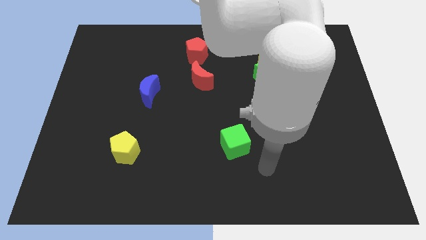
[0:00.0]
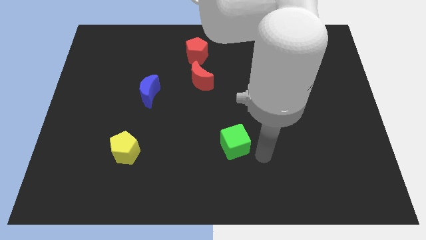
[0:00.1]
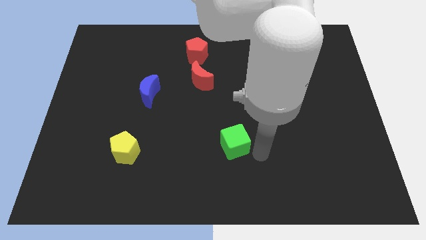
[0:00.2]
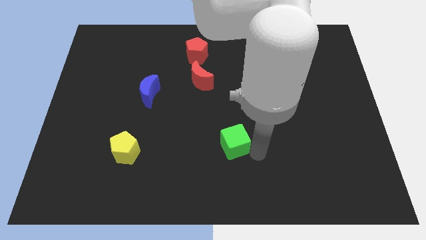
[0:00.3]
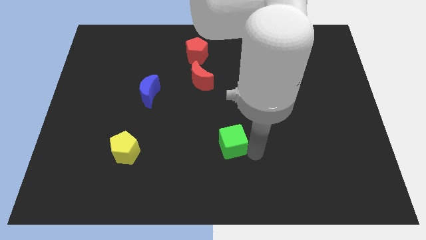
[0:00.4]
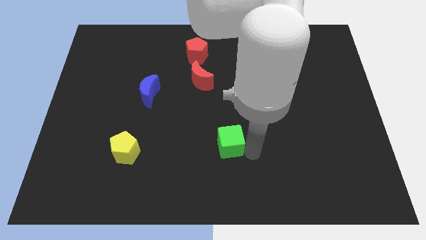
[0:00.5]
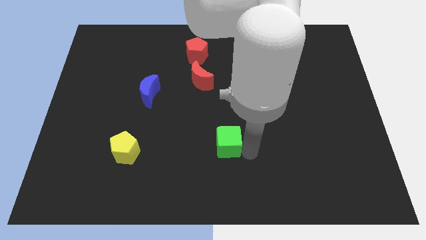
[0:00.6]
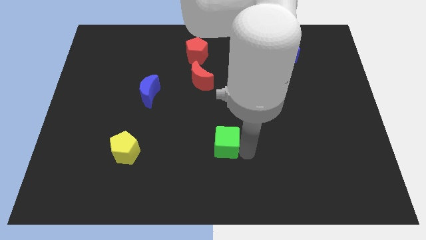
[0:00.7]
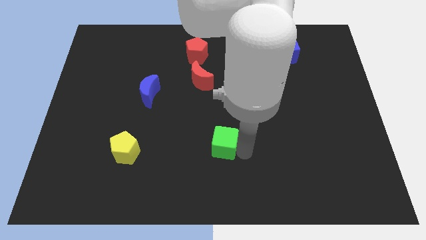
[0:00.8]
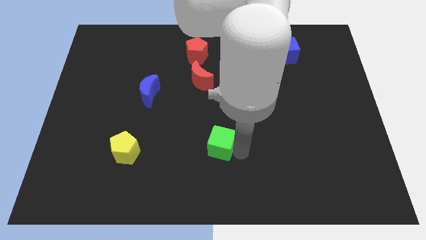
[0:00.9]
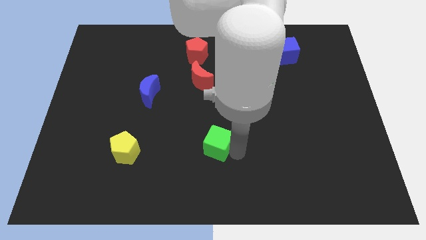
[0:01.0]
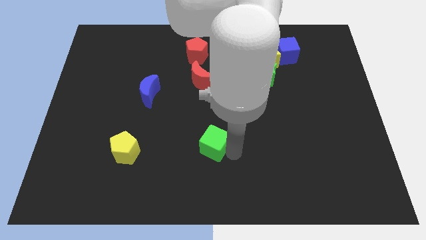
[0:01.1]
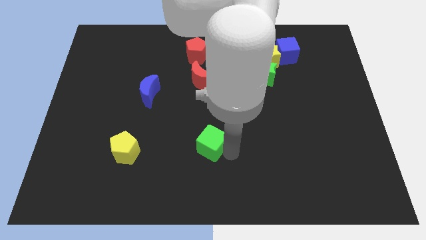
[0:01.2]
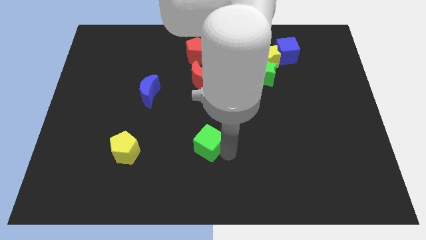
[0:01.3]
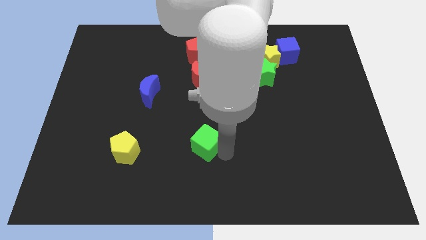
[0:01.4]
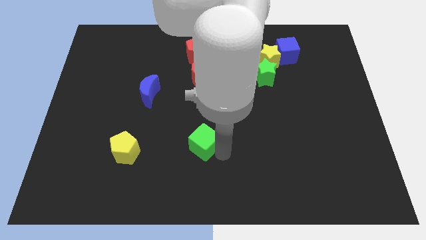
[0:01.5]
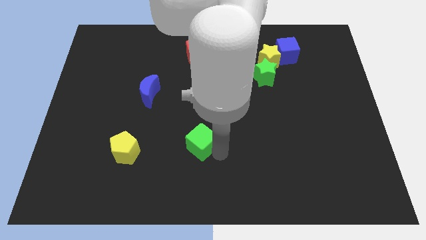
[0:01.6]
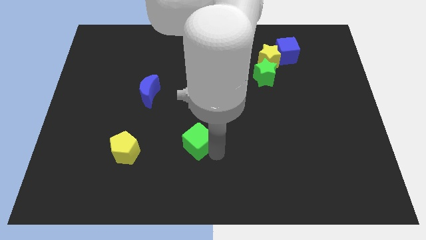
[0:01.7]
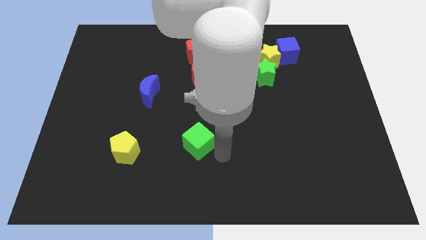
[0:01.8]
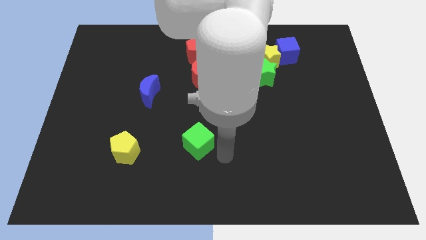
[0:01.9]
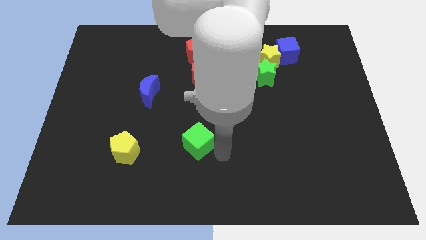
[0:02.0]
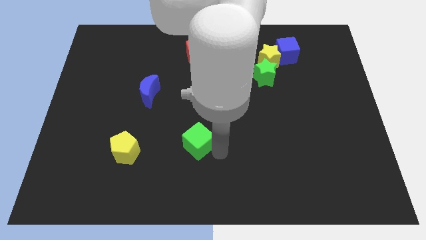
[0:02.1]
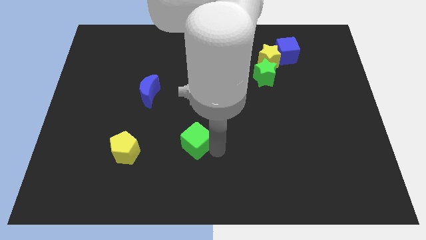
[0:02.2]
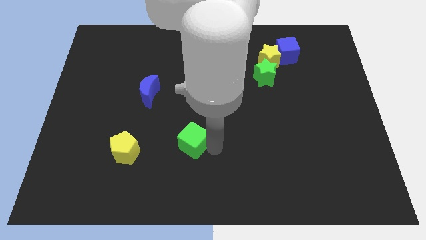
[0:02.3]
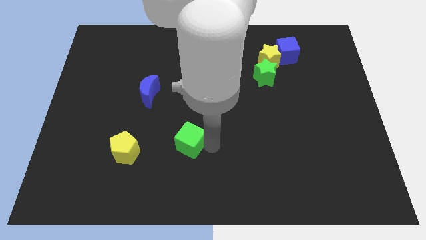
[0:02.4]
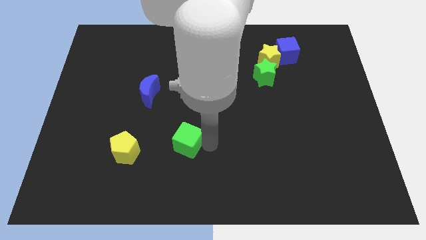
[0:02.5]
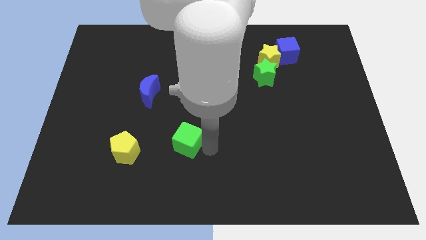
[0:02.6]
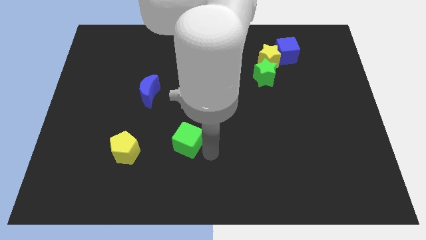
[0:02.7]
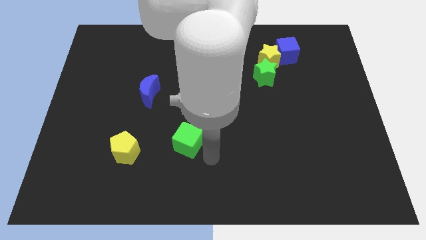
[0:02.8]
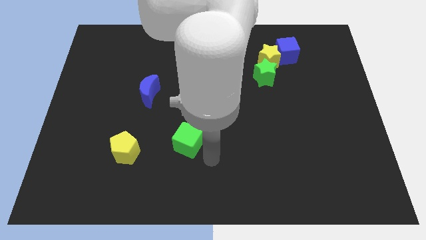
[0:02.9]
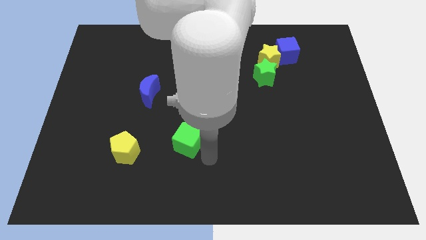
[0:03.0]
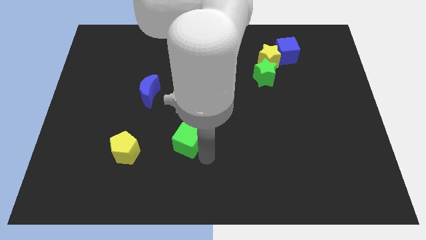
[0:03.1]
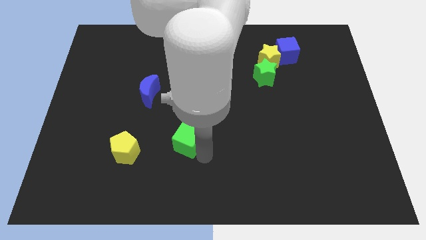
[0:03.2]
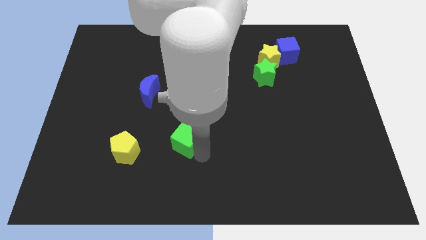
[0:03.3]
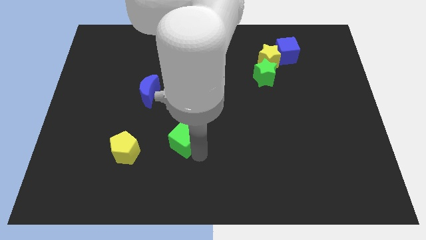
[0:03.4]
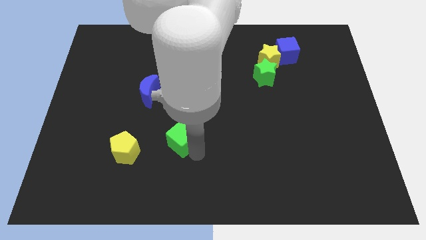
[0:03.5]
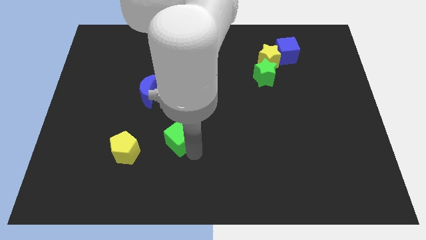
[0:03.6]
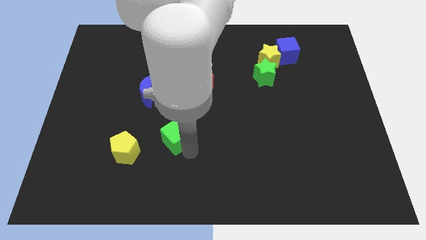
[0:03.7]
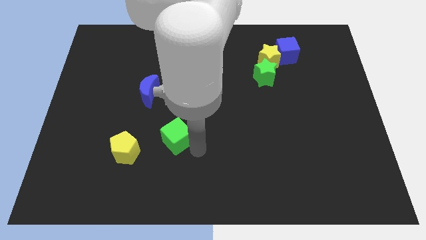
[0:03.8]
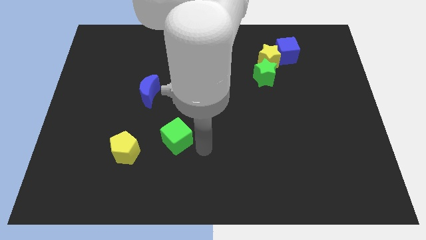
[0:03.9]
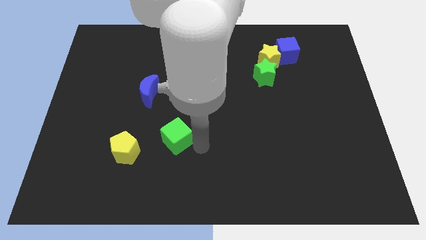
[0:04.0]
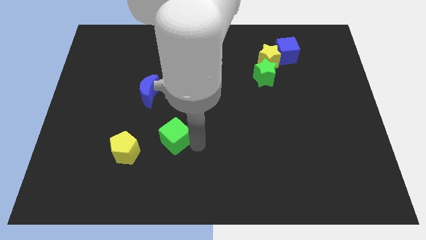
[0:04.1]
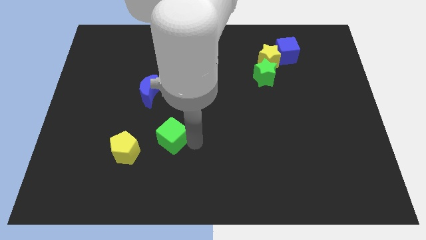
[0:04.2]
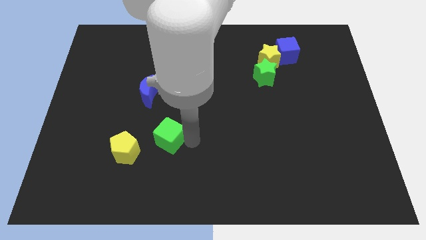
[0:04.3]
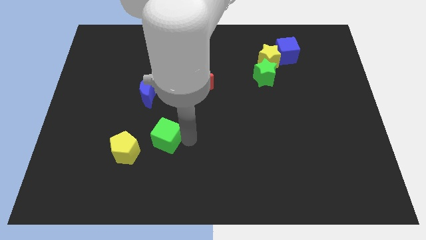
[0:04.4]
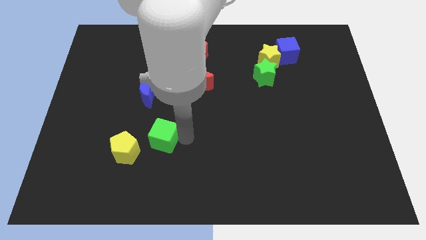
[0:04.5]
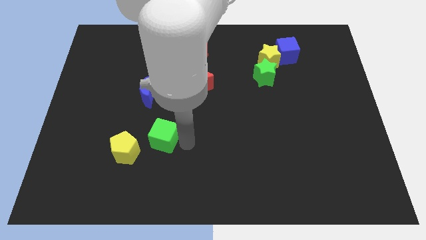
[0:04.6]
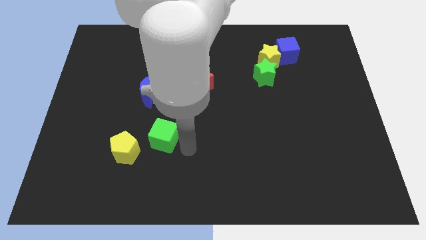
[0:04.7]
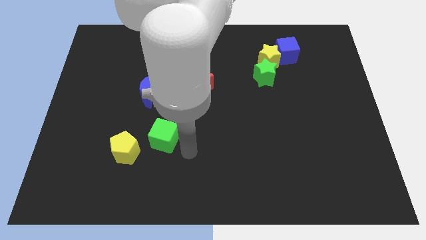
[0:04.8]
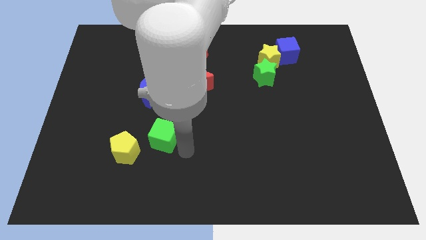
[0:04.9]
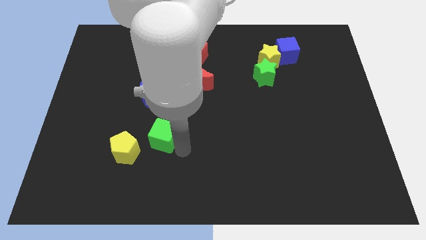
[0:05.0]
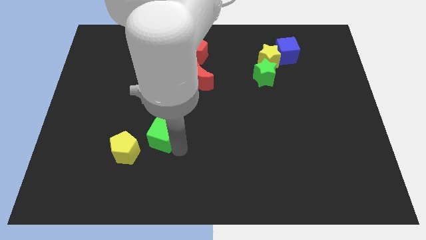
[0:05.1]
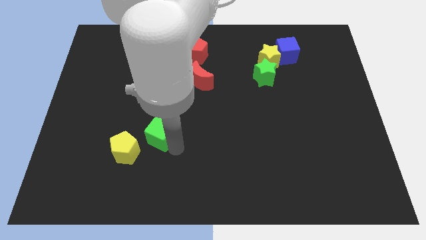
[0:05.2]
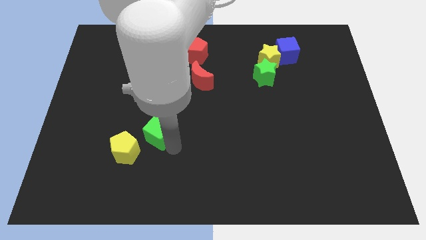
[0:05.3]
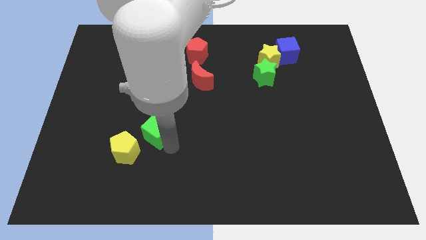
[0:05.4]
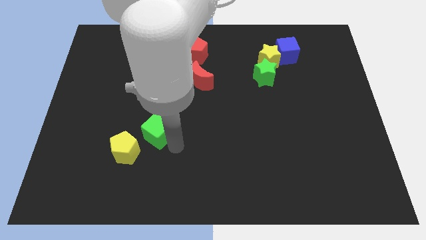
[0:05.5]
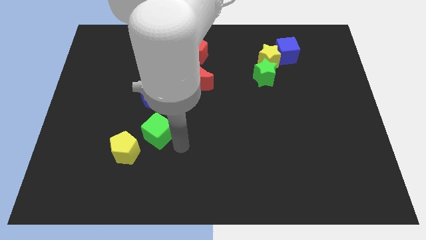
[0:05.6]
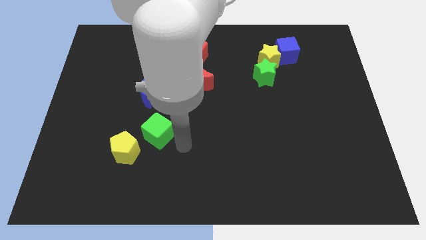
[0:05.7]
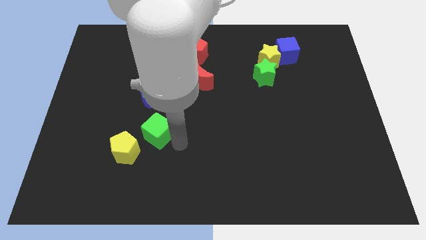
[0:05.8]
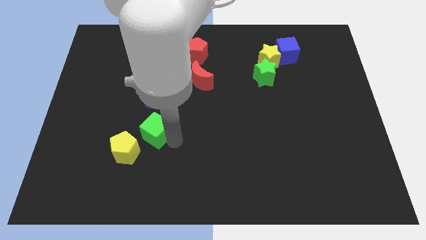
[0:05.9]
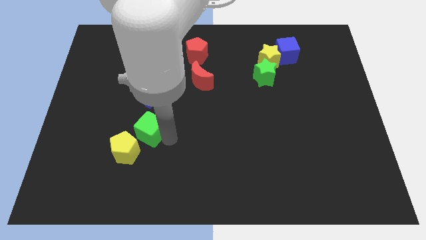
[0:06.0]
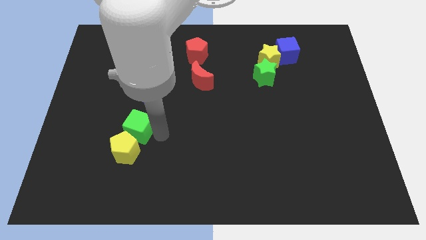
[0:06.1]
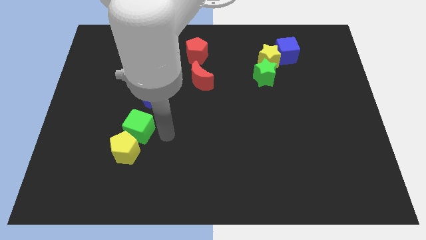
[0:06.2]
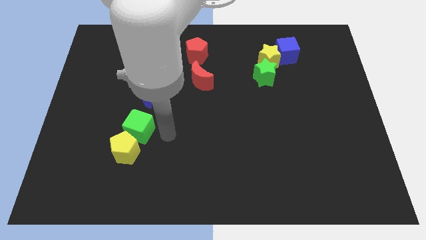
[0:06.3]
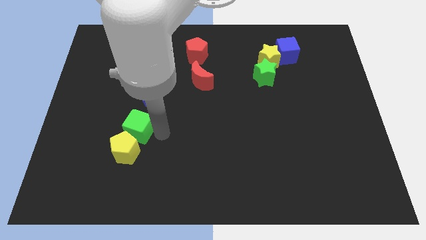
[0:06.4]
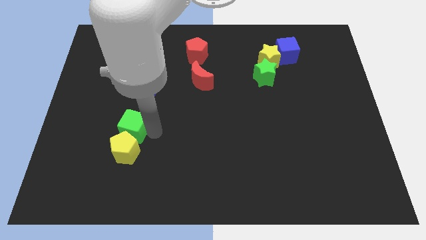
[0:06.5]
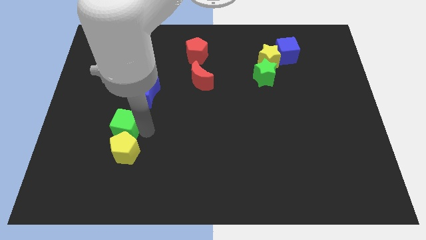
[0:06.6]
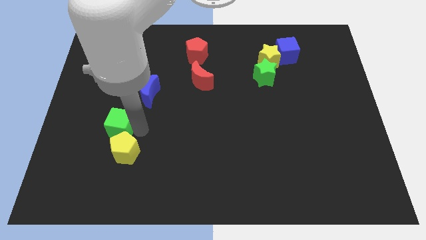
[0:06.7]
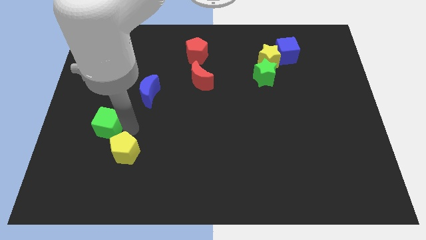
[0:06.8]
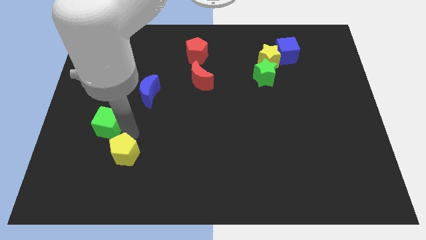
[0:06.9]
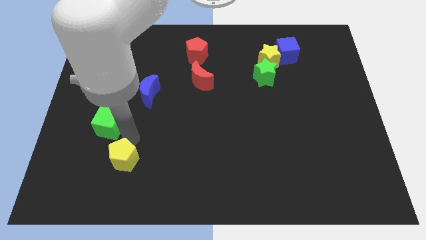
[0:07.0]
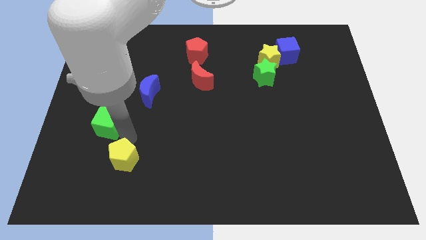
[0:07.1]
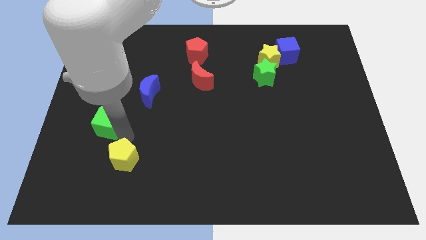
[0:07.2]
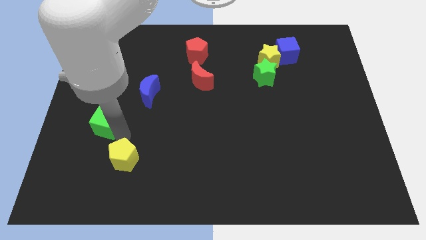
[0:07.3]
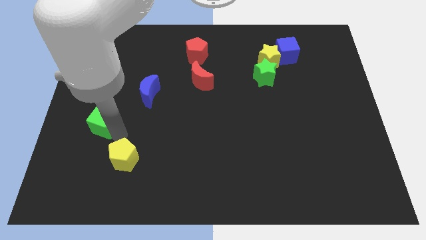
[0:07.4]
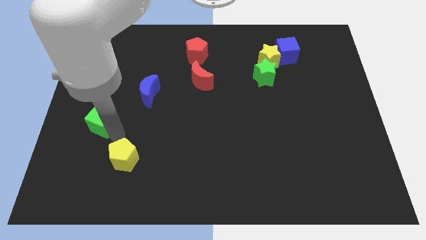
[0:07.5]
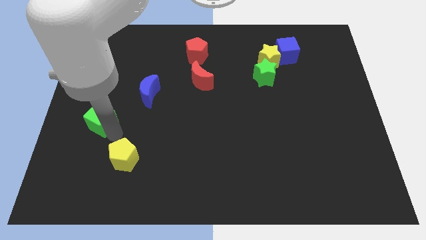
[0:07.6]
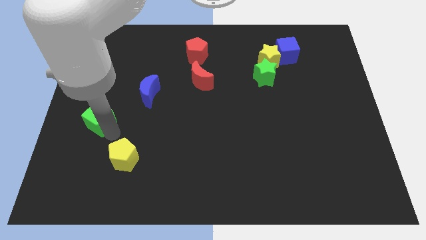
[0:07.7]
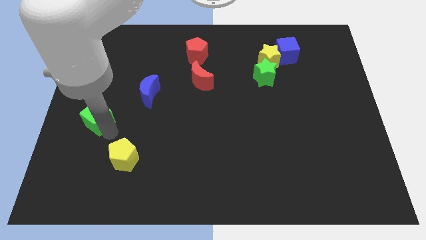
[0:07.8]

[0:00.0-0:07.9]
move the green cube to the center left
